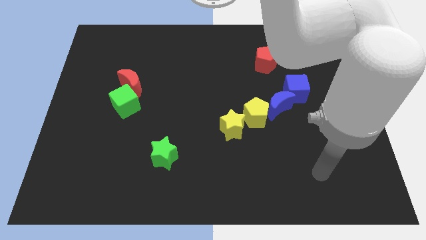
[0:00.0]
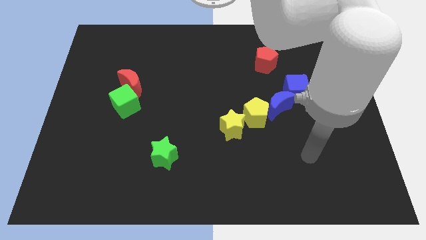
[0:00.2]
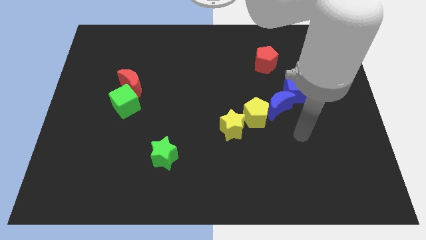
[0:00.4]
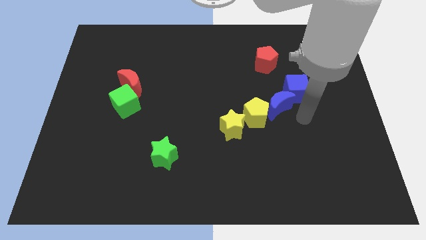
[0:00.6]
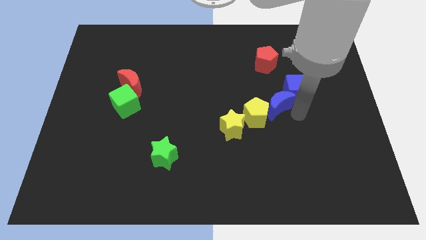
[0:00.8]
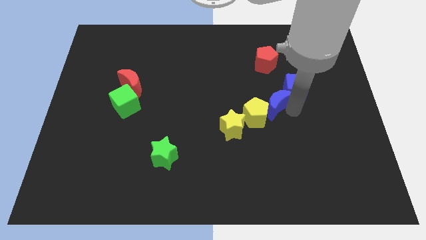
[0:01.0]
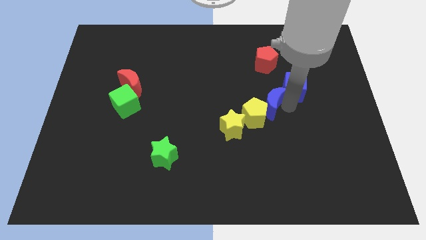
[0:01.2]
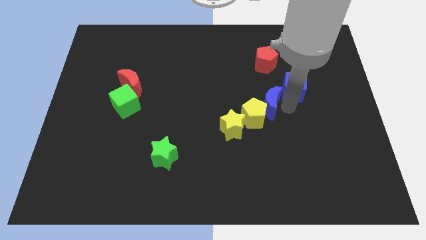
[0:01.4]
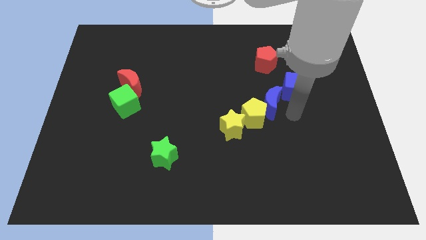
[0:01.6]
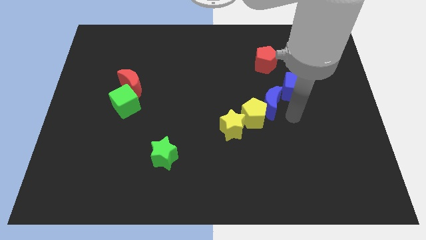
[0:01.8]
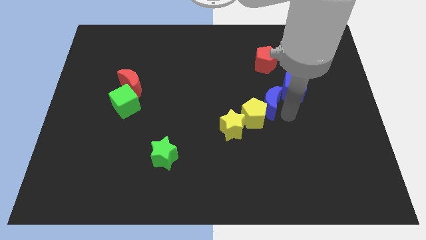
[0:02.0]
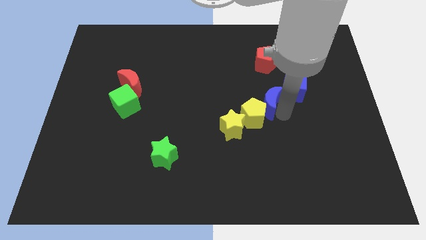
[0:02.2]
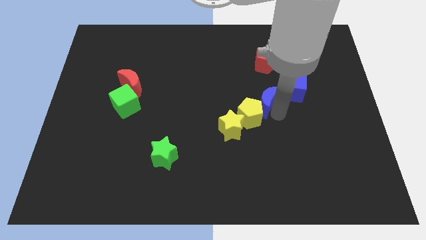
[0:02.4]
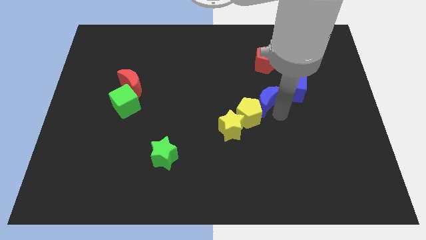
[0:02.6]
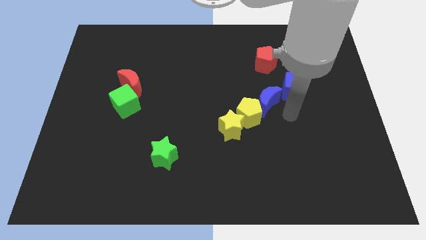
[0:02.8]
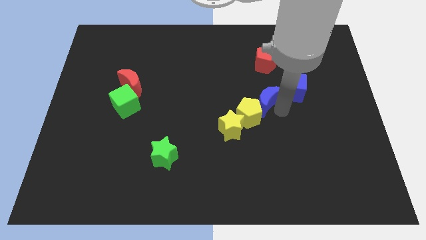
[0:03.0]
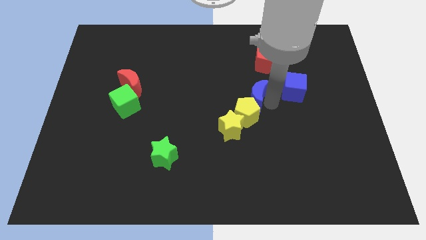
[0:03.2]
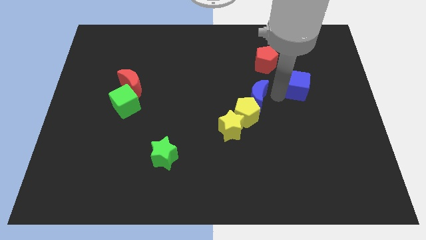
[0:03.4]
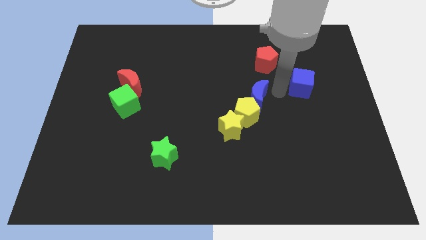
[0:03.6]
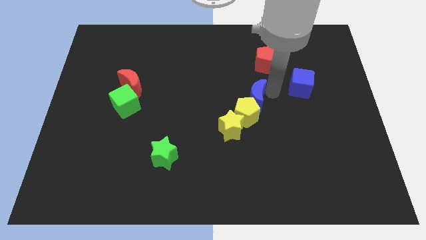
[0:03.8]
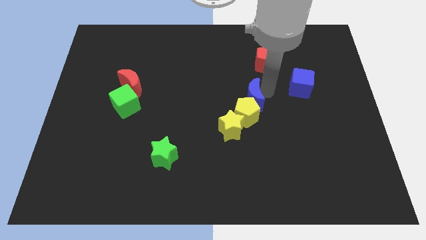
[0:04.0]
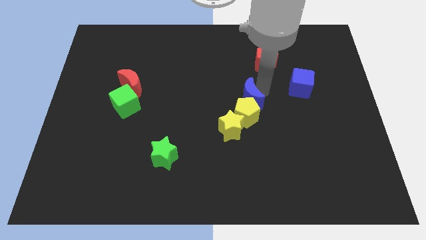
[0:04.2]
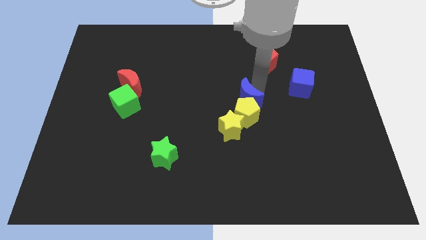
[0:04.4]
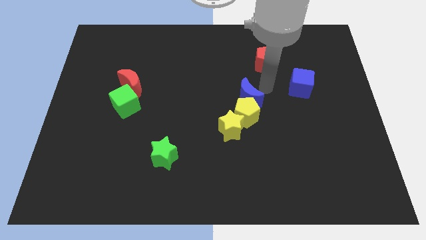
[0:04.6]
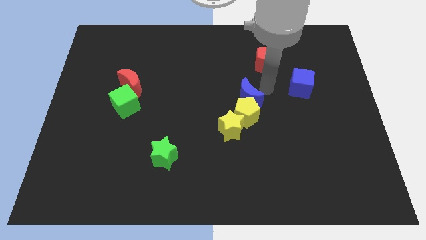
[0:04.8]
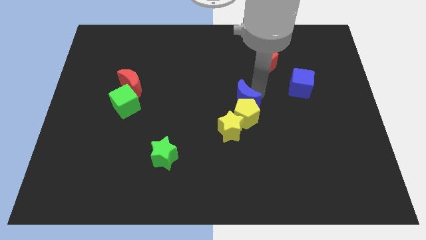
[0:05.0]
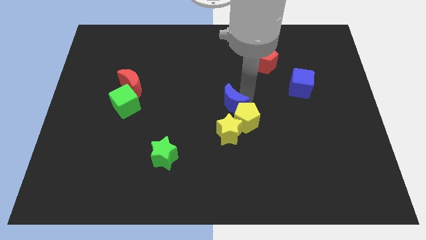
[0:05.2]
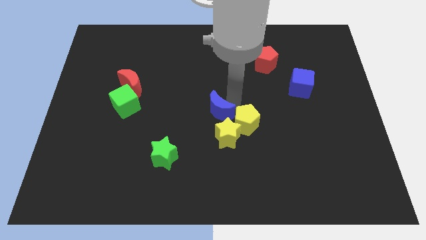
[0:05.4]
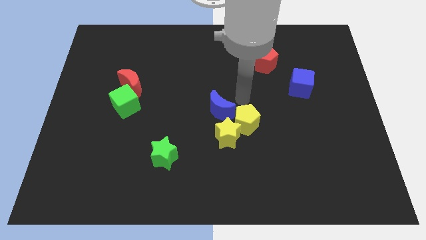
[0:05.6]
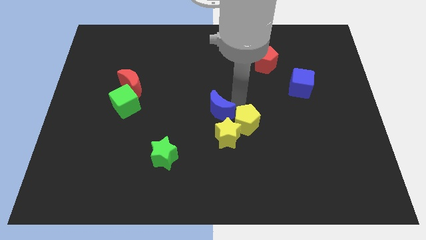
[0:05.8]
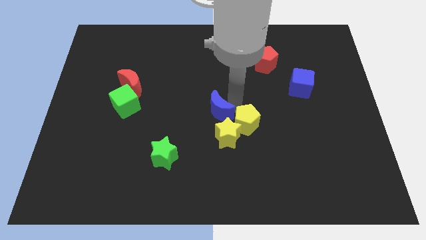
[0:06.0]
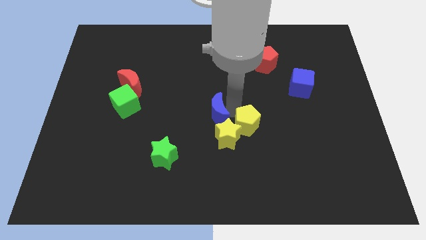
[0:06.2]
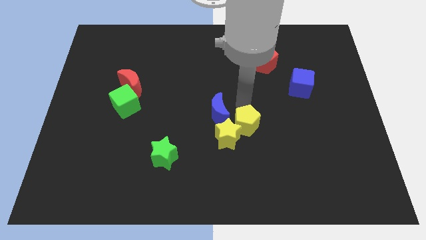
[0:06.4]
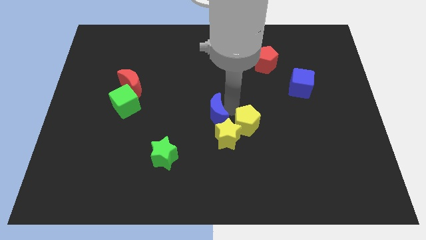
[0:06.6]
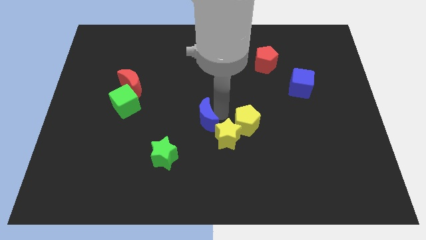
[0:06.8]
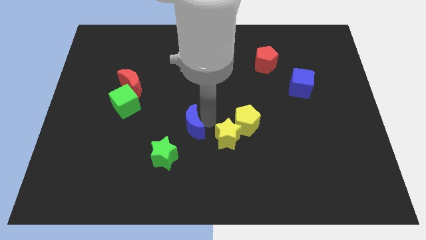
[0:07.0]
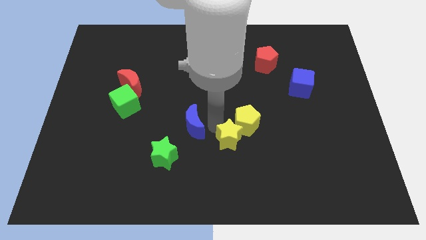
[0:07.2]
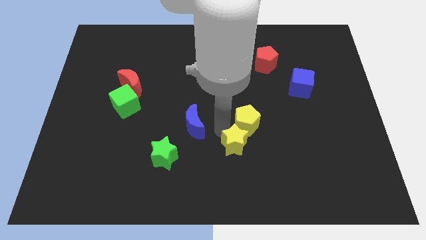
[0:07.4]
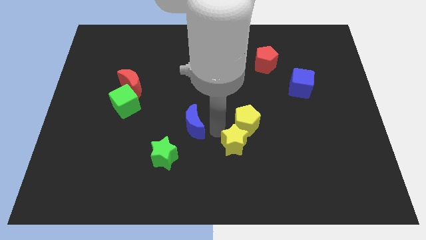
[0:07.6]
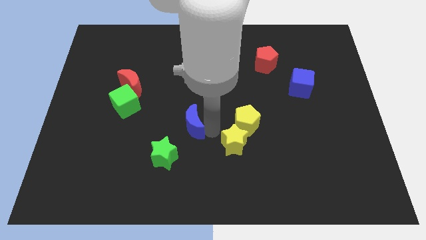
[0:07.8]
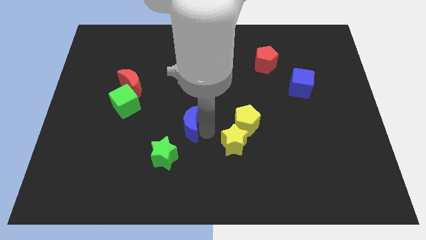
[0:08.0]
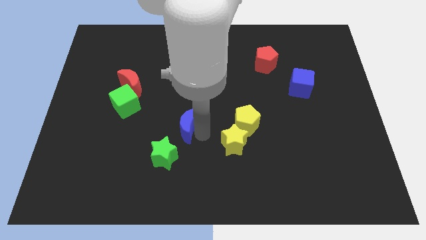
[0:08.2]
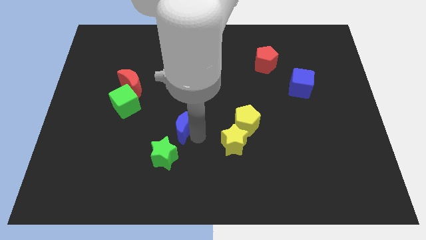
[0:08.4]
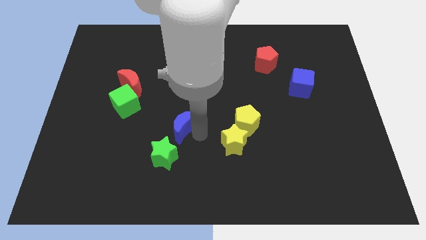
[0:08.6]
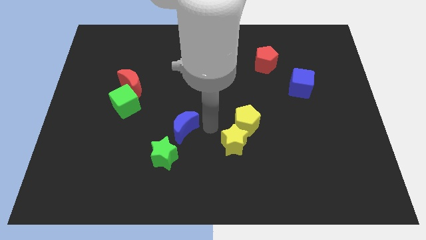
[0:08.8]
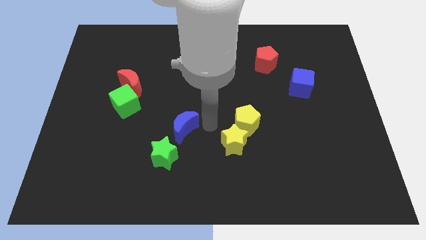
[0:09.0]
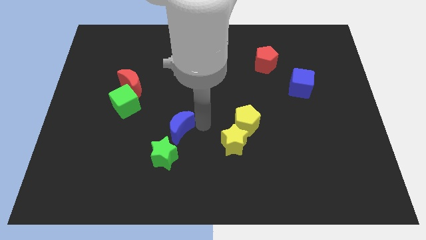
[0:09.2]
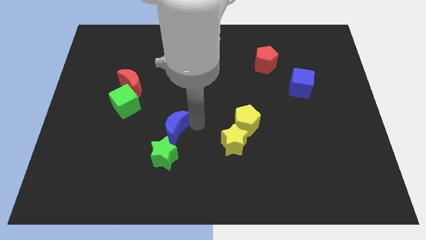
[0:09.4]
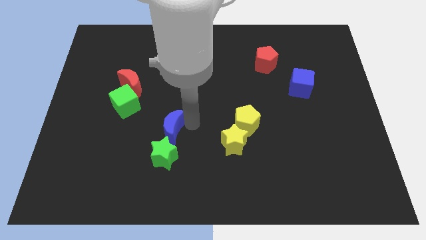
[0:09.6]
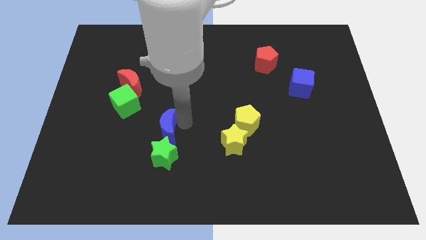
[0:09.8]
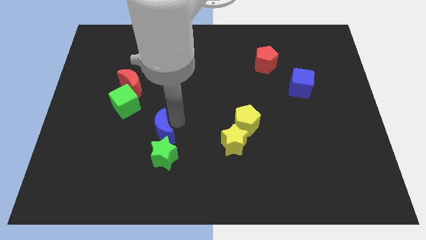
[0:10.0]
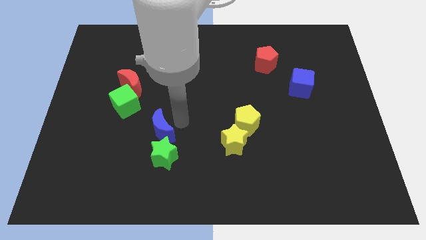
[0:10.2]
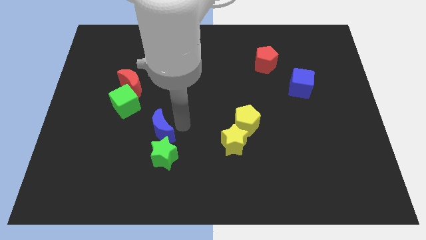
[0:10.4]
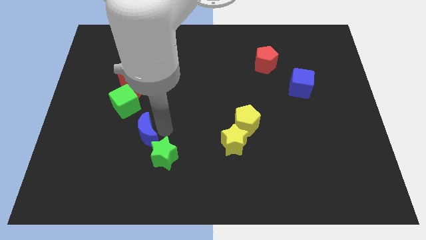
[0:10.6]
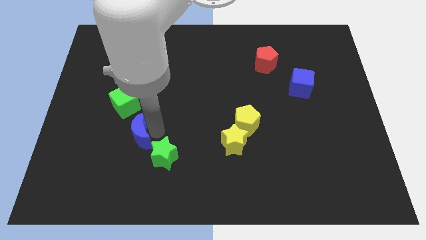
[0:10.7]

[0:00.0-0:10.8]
put the blue moon below the green cube

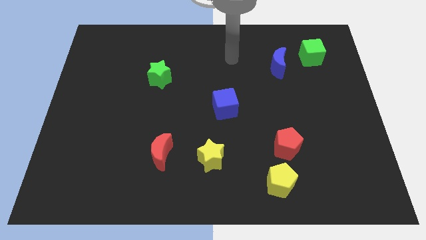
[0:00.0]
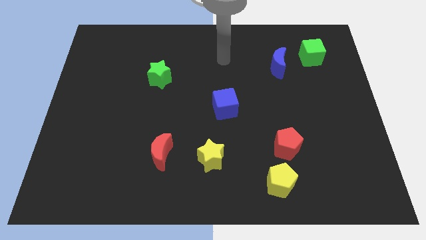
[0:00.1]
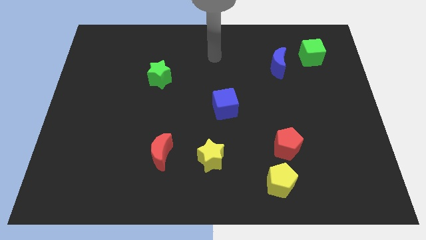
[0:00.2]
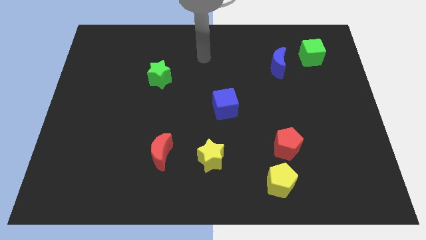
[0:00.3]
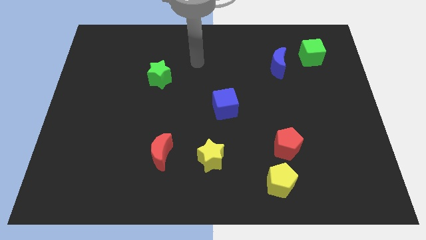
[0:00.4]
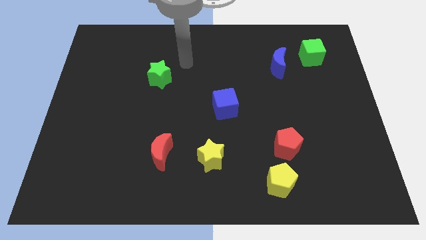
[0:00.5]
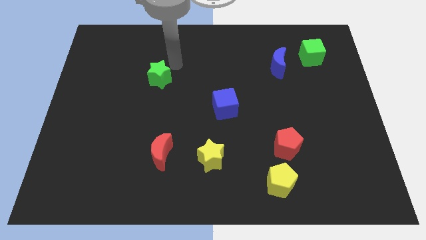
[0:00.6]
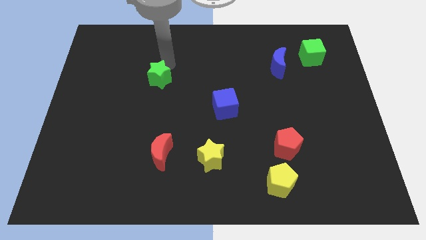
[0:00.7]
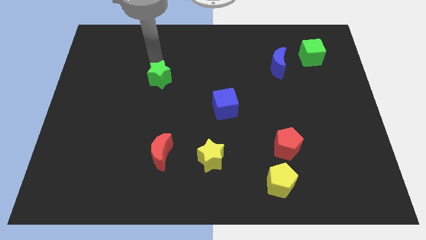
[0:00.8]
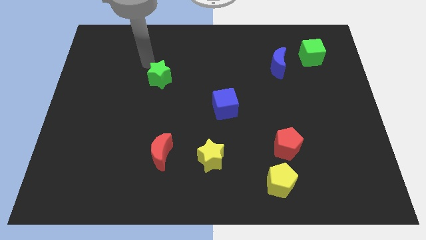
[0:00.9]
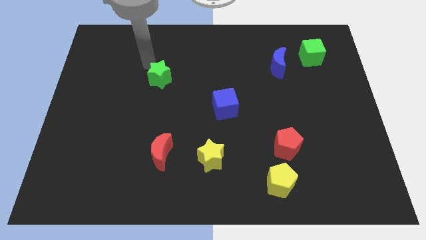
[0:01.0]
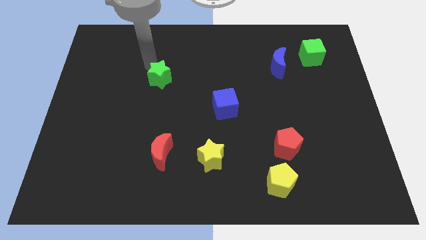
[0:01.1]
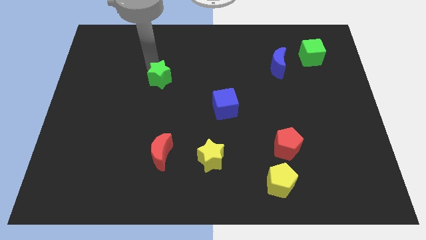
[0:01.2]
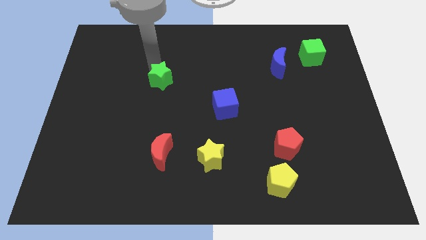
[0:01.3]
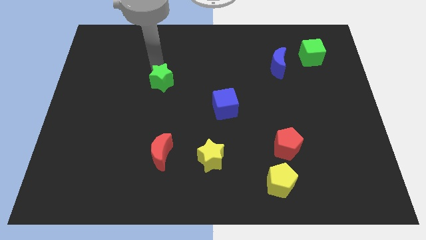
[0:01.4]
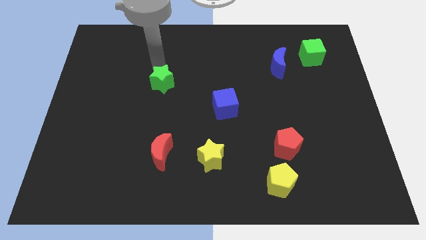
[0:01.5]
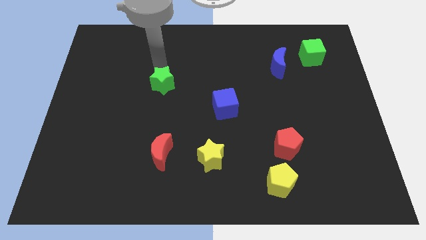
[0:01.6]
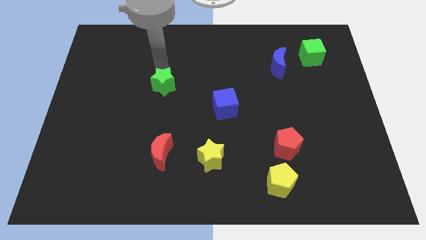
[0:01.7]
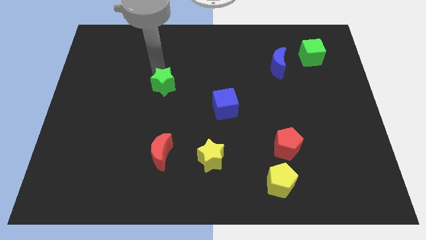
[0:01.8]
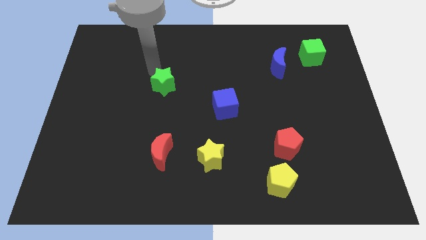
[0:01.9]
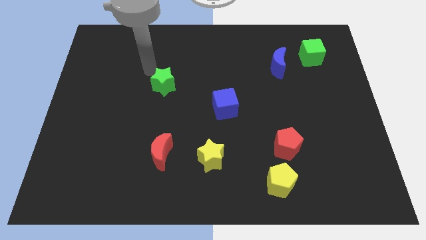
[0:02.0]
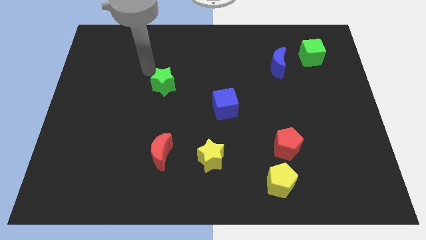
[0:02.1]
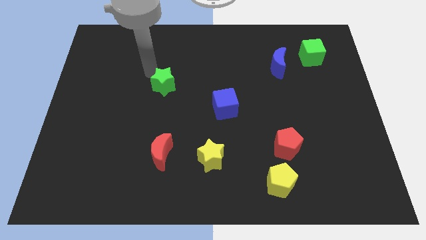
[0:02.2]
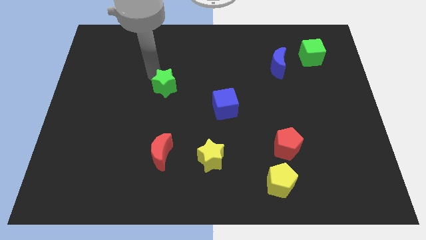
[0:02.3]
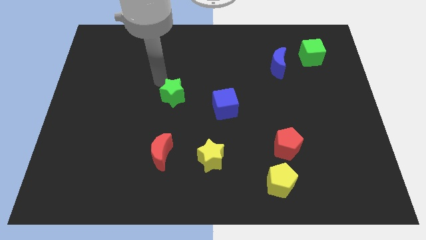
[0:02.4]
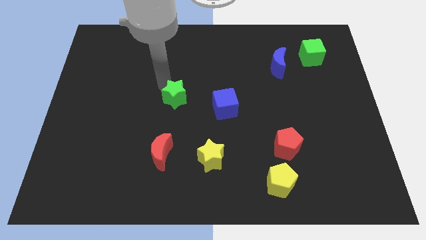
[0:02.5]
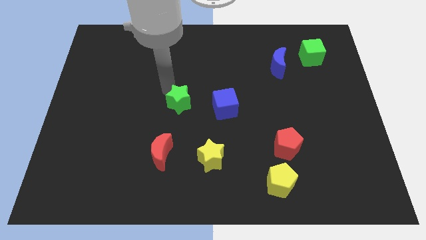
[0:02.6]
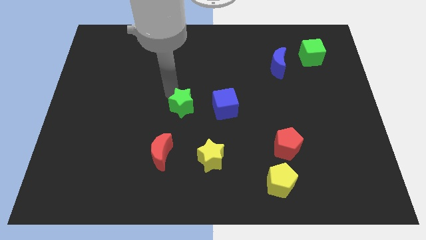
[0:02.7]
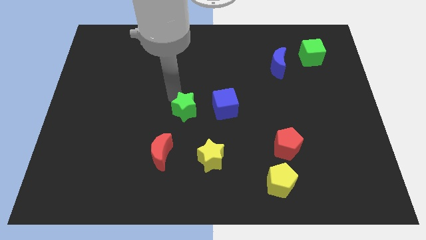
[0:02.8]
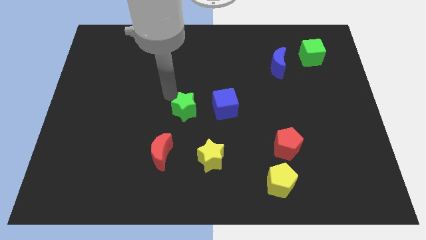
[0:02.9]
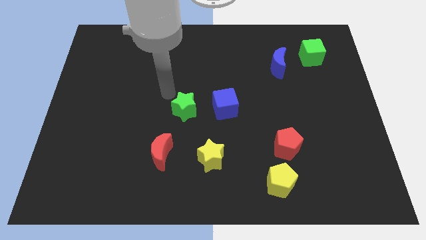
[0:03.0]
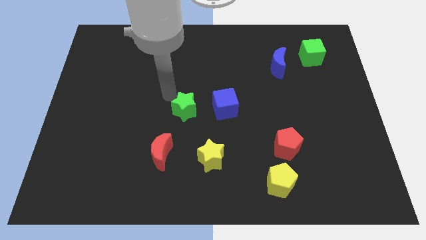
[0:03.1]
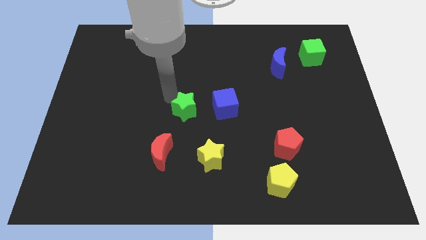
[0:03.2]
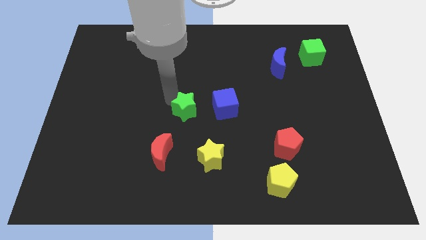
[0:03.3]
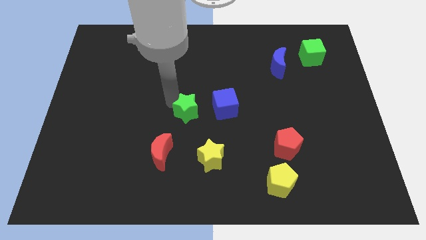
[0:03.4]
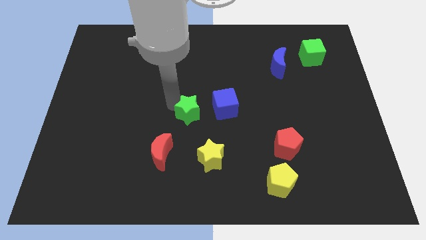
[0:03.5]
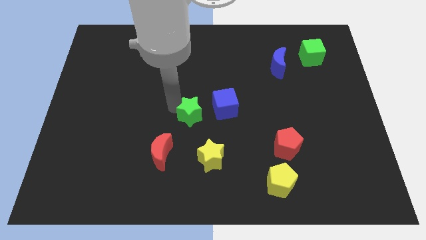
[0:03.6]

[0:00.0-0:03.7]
put the green star to the bottom left of the blue cube
